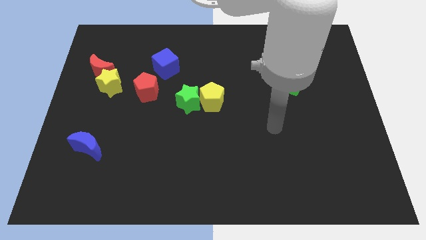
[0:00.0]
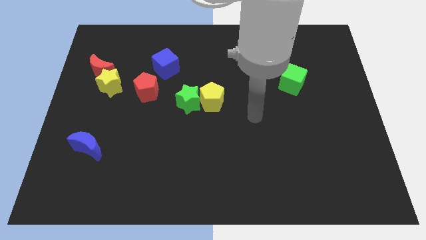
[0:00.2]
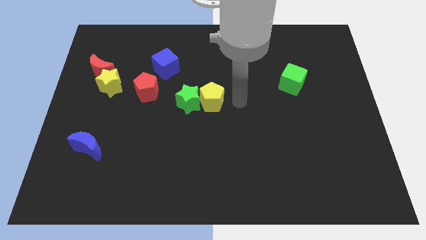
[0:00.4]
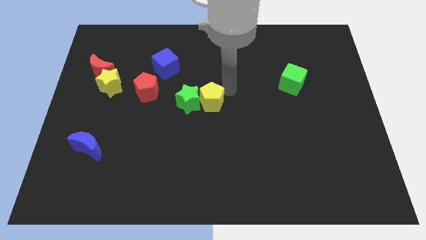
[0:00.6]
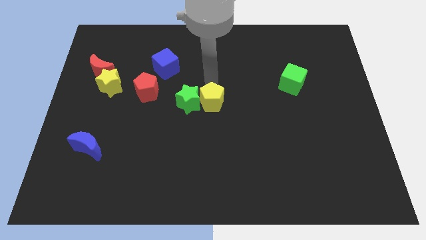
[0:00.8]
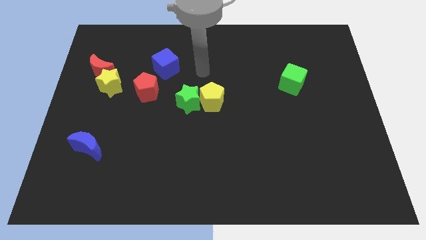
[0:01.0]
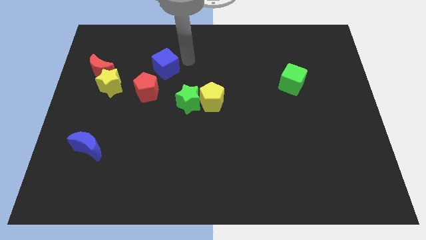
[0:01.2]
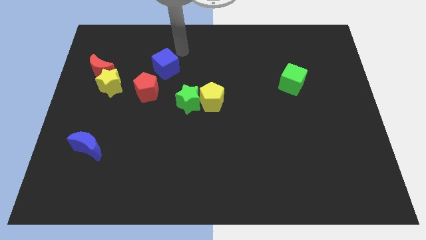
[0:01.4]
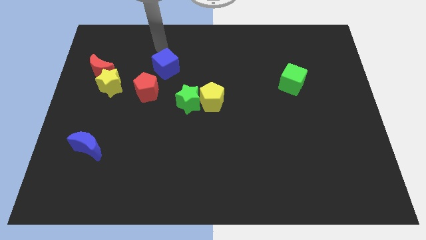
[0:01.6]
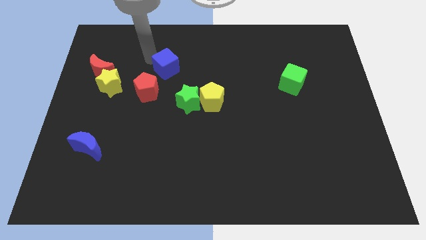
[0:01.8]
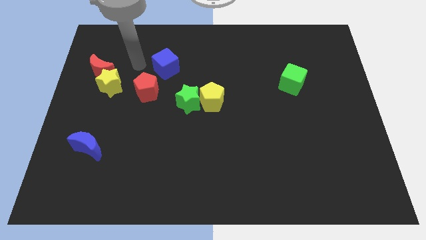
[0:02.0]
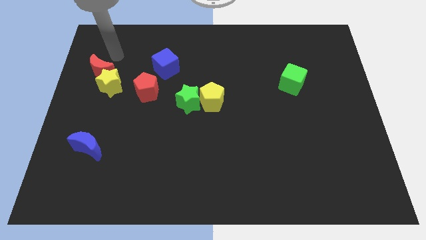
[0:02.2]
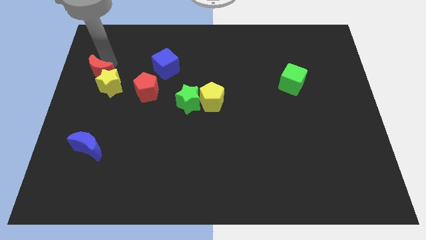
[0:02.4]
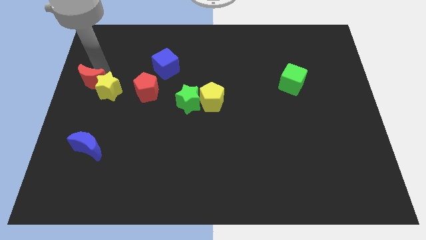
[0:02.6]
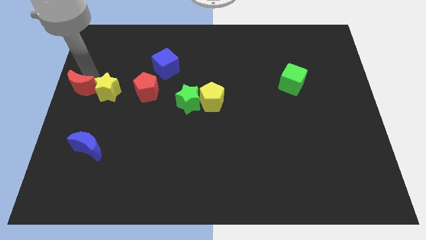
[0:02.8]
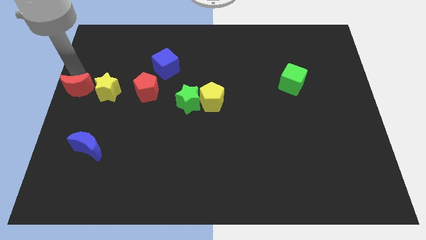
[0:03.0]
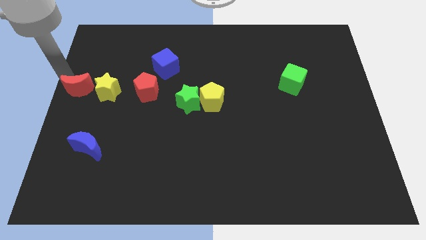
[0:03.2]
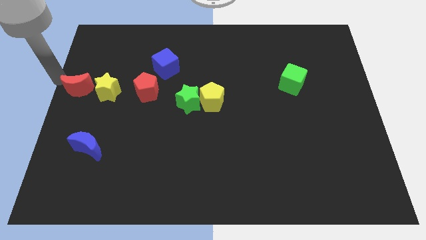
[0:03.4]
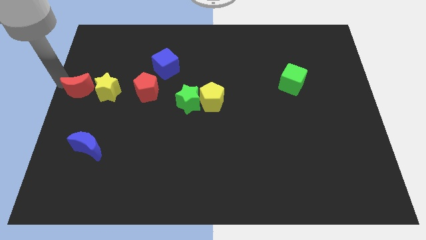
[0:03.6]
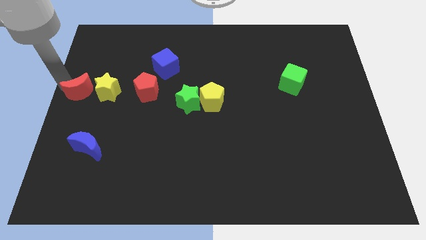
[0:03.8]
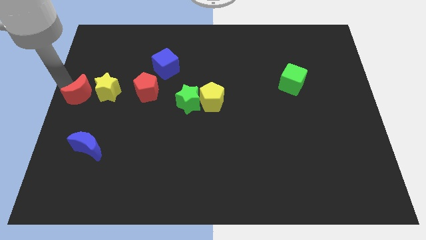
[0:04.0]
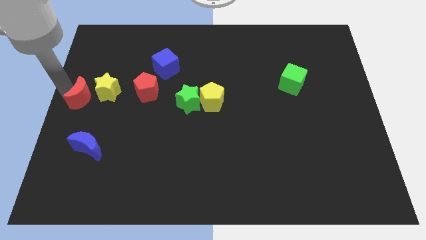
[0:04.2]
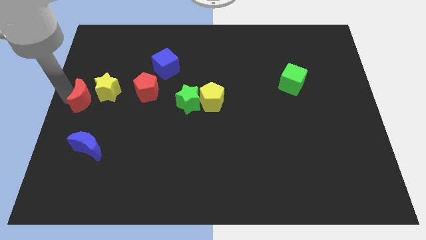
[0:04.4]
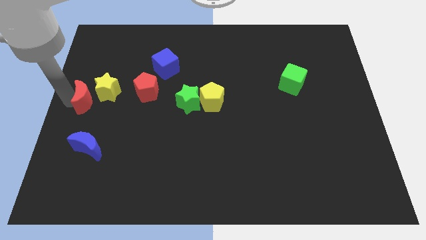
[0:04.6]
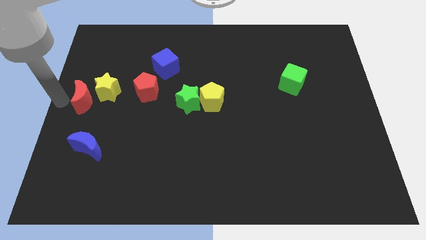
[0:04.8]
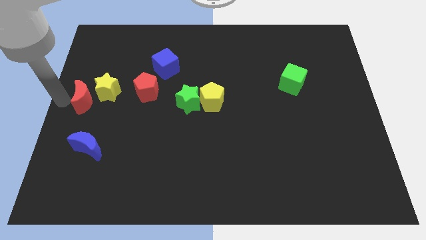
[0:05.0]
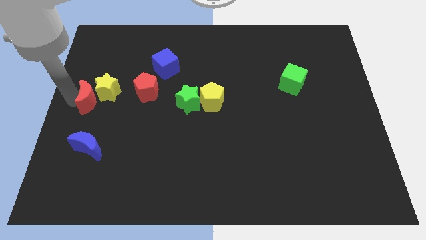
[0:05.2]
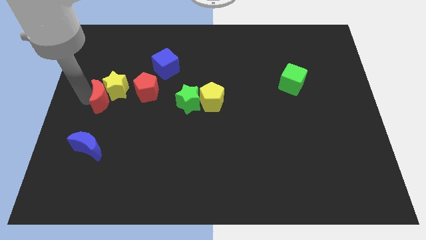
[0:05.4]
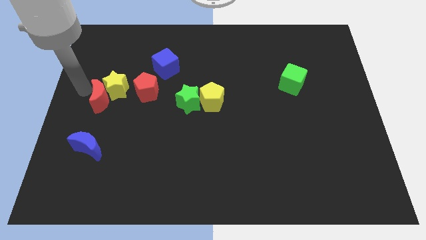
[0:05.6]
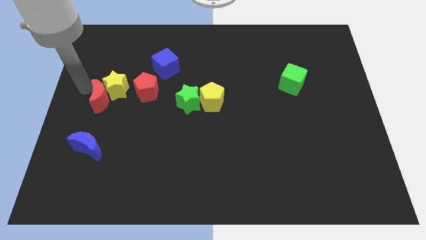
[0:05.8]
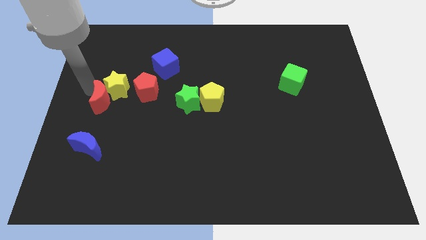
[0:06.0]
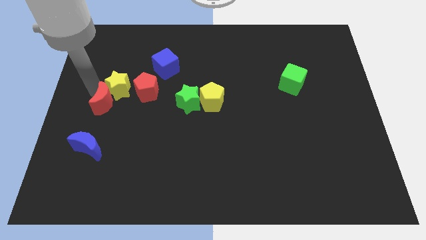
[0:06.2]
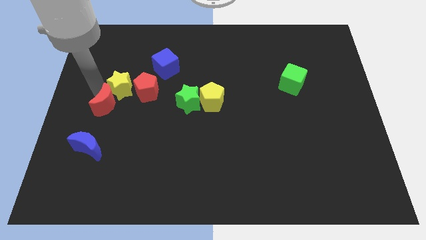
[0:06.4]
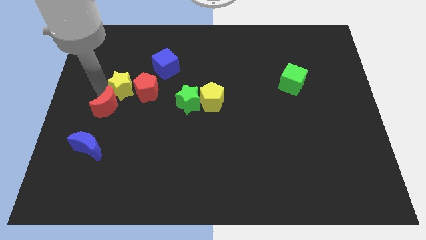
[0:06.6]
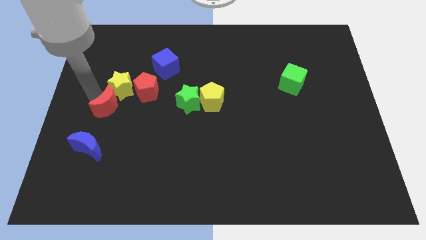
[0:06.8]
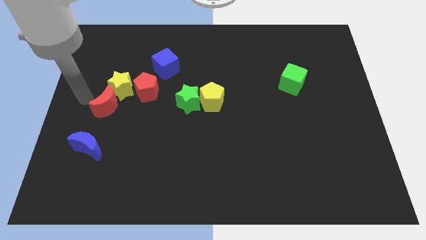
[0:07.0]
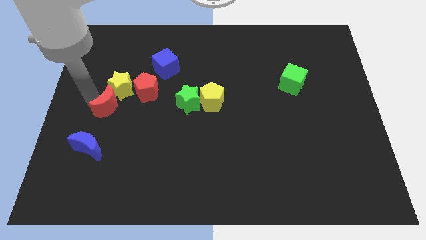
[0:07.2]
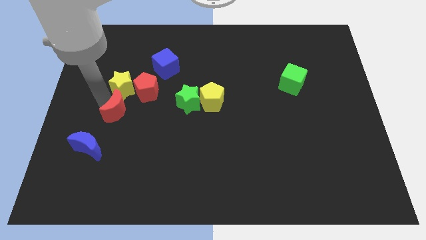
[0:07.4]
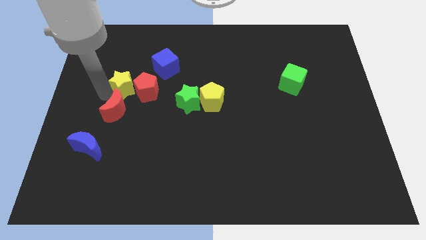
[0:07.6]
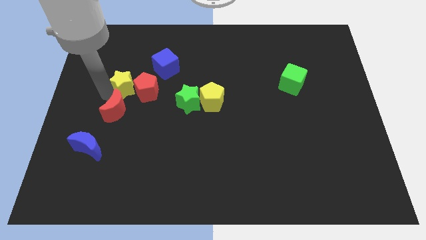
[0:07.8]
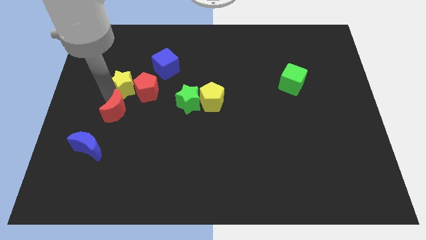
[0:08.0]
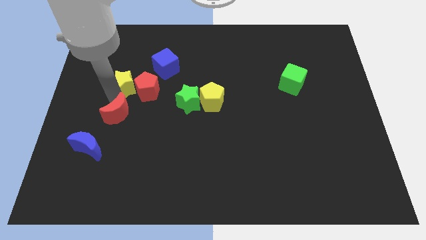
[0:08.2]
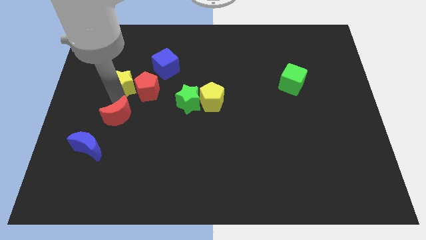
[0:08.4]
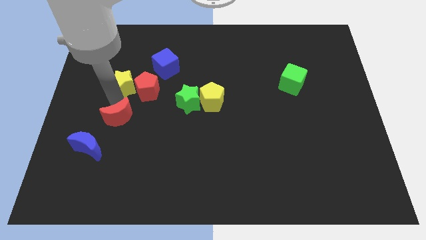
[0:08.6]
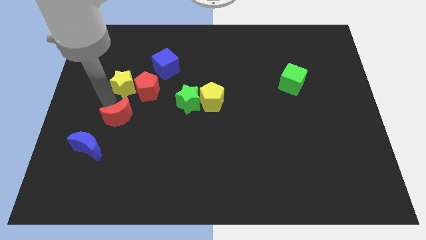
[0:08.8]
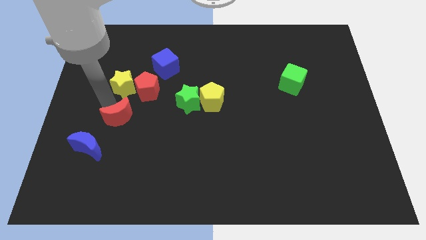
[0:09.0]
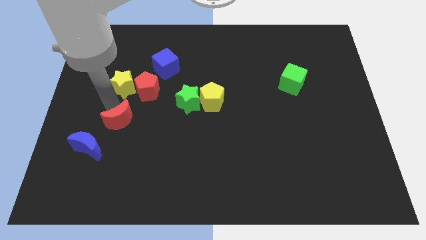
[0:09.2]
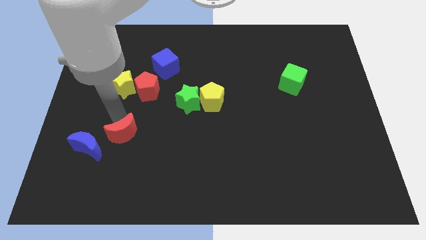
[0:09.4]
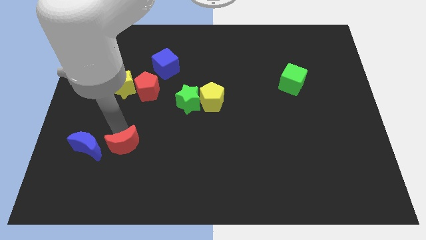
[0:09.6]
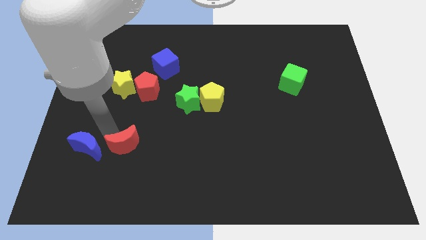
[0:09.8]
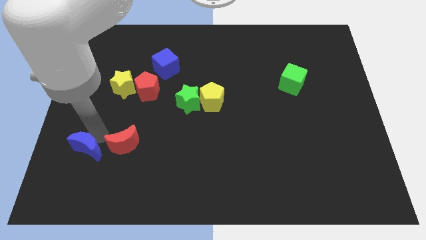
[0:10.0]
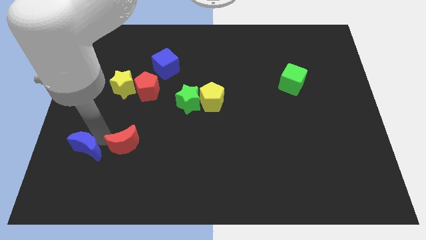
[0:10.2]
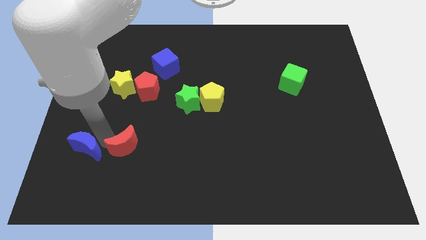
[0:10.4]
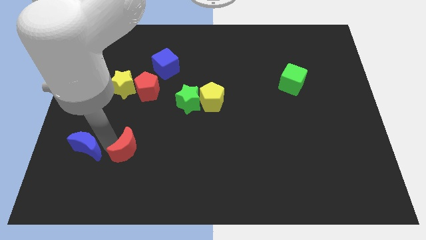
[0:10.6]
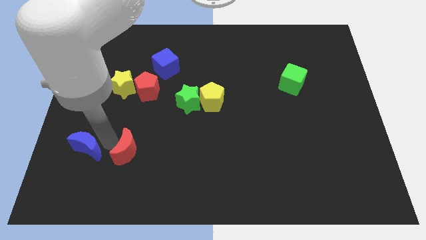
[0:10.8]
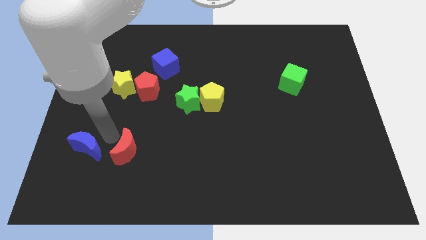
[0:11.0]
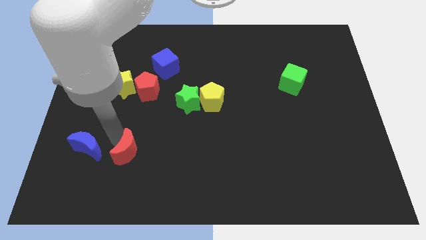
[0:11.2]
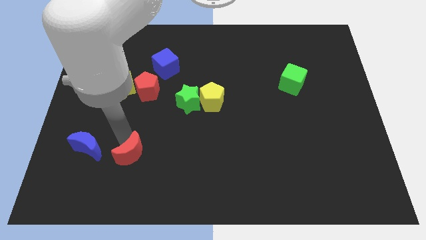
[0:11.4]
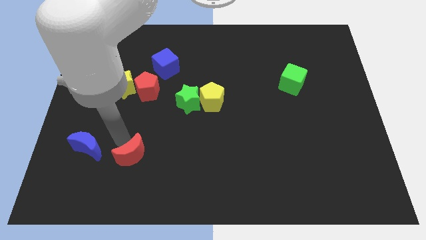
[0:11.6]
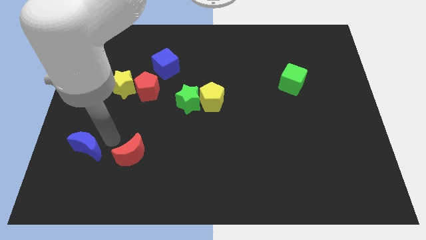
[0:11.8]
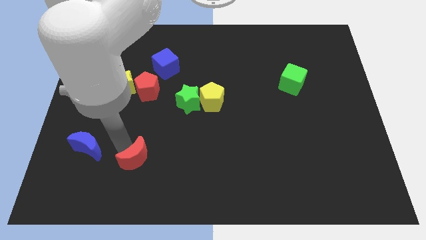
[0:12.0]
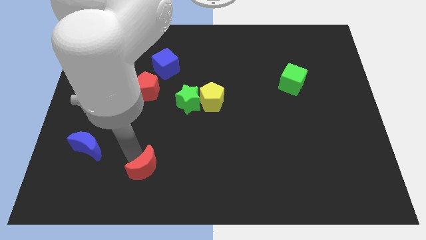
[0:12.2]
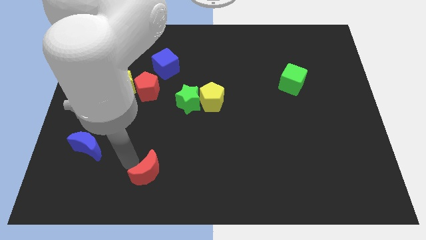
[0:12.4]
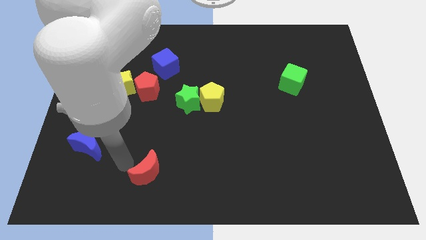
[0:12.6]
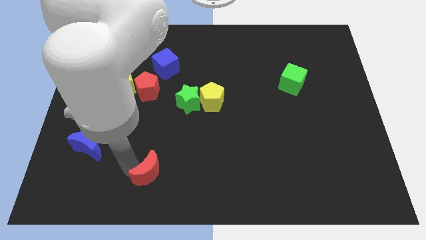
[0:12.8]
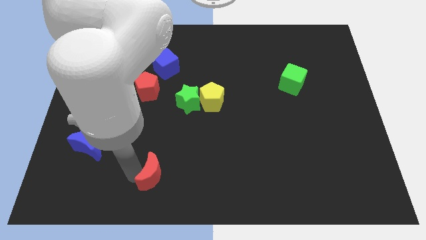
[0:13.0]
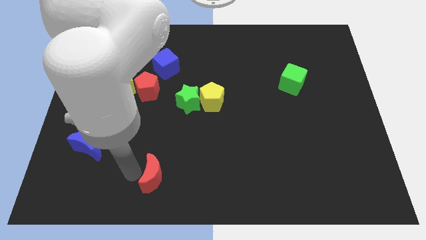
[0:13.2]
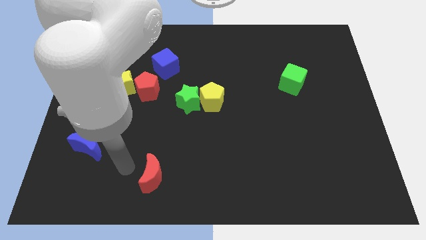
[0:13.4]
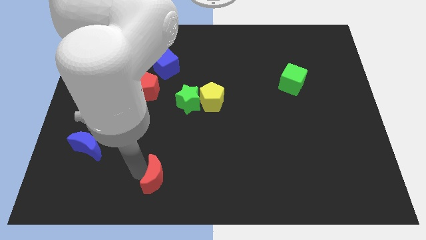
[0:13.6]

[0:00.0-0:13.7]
push the red moon to the bottom

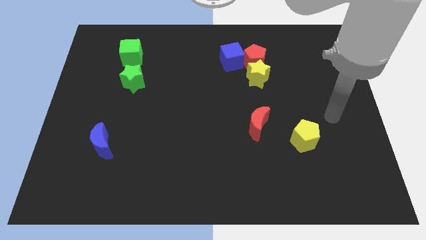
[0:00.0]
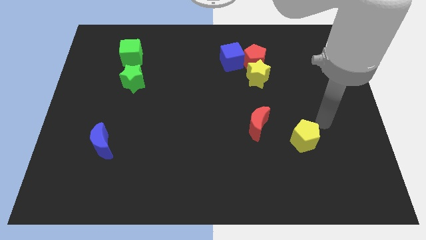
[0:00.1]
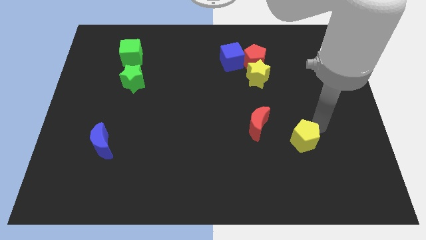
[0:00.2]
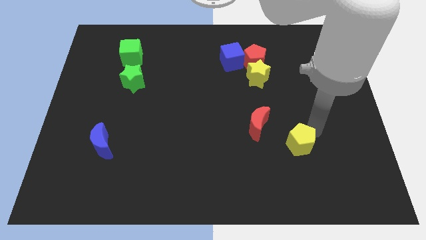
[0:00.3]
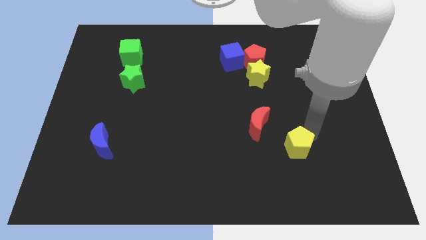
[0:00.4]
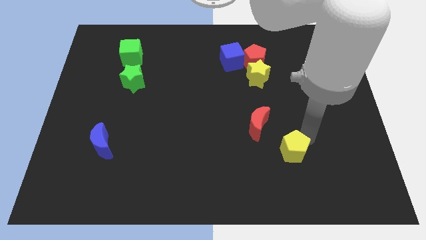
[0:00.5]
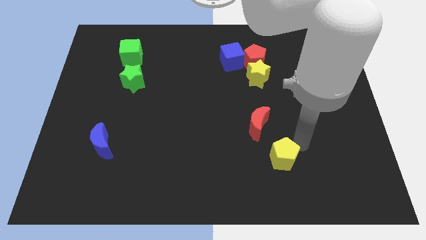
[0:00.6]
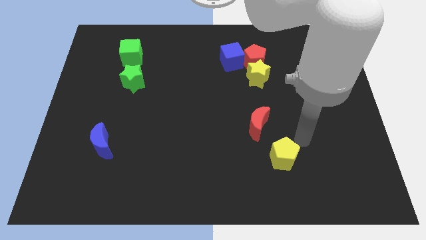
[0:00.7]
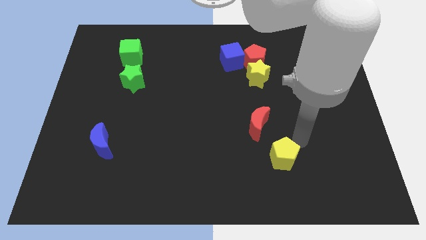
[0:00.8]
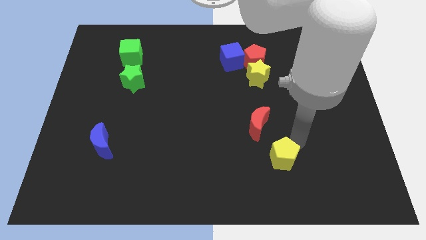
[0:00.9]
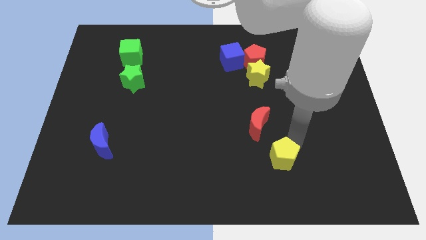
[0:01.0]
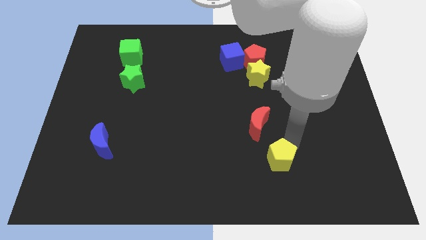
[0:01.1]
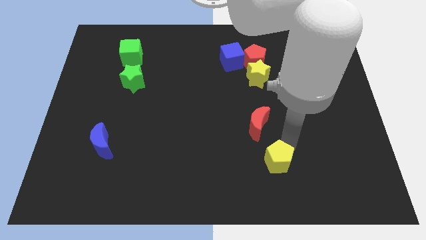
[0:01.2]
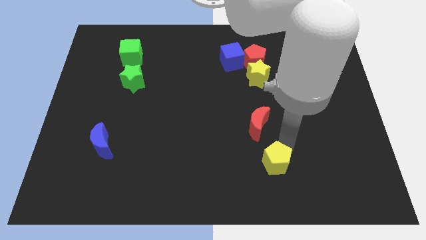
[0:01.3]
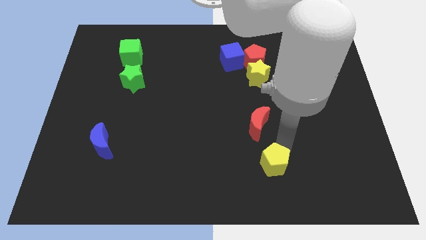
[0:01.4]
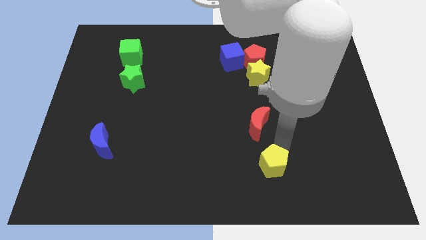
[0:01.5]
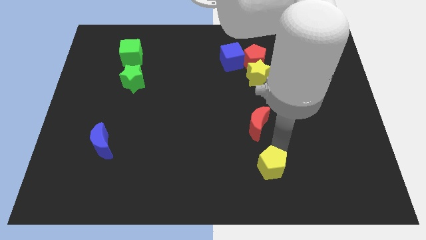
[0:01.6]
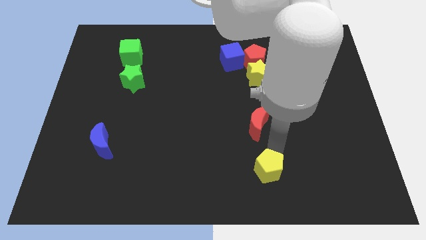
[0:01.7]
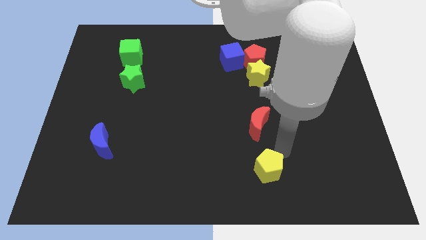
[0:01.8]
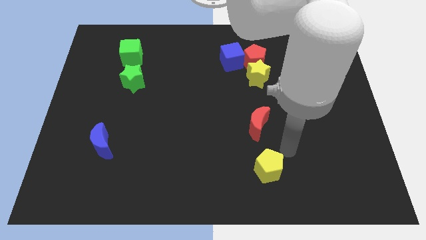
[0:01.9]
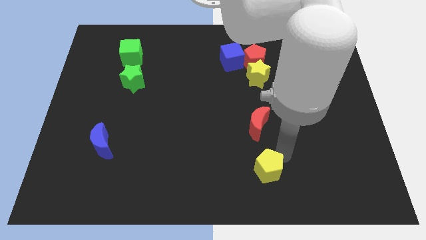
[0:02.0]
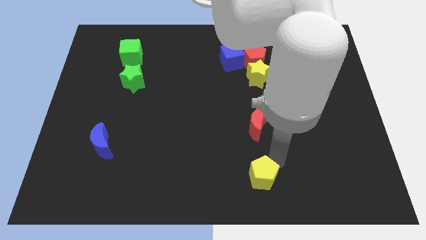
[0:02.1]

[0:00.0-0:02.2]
slide the yellow pentagon to the bottom side
